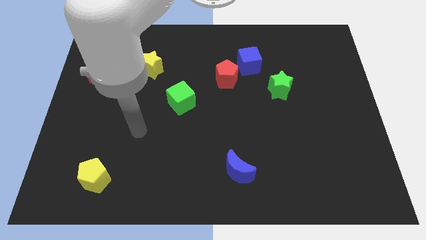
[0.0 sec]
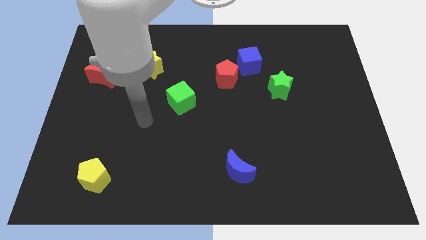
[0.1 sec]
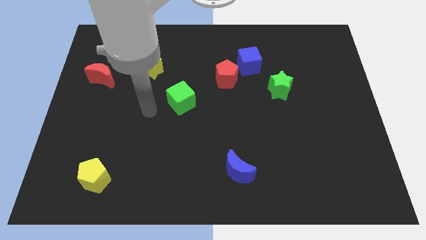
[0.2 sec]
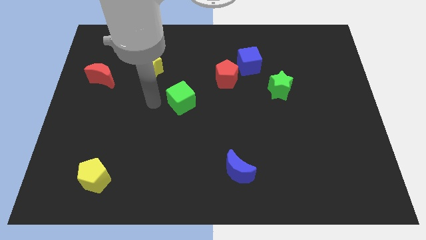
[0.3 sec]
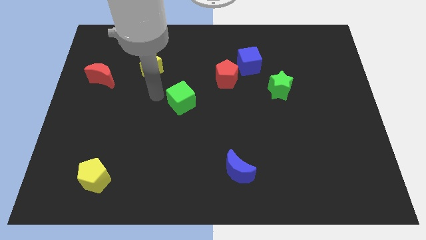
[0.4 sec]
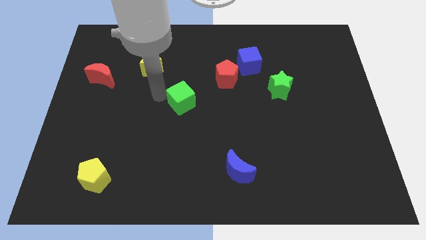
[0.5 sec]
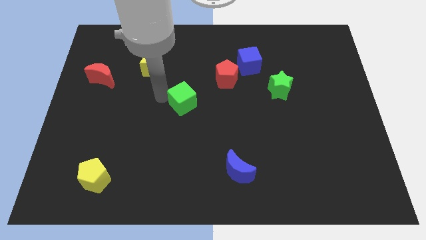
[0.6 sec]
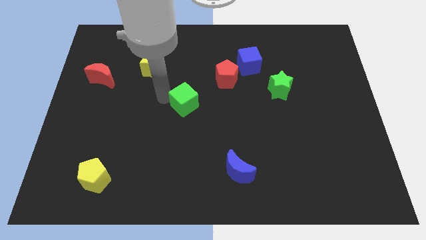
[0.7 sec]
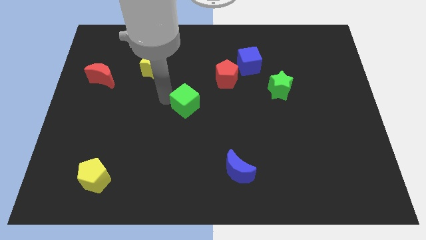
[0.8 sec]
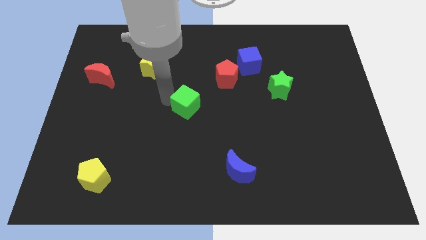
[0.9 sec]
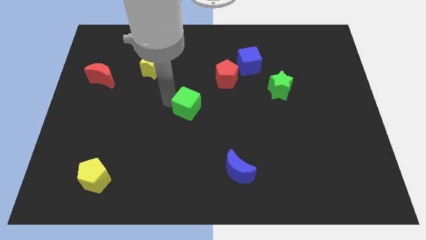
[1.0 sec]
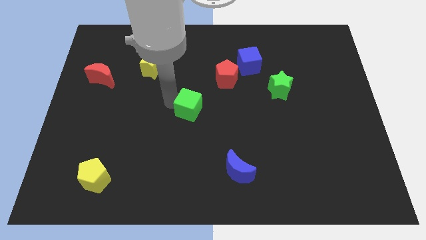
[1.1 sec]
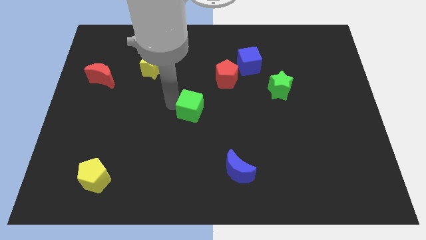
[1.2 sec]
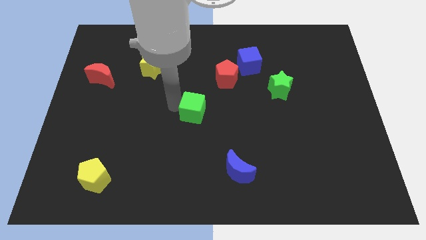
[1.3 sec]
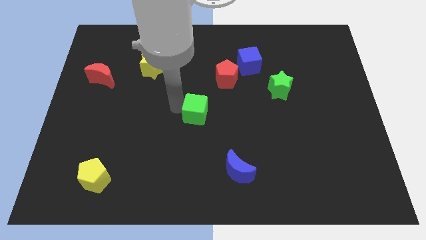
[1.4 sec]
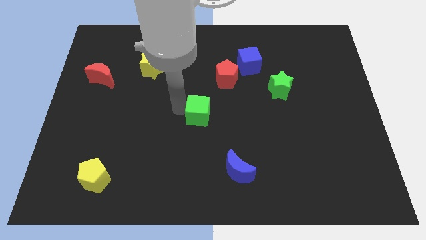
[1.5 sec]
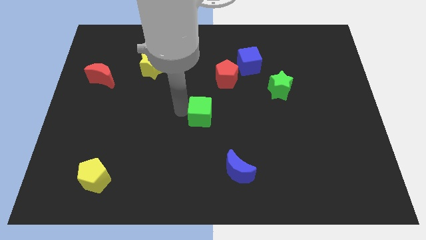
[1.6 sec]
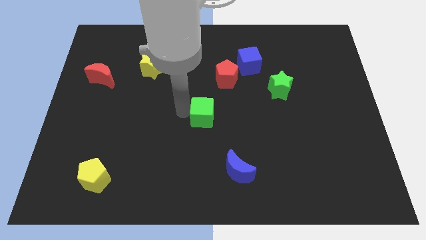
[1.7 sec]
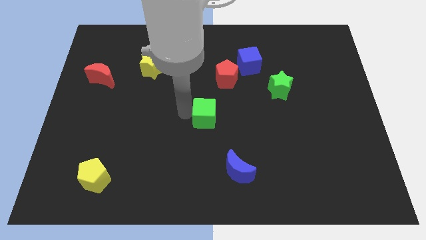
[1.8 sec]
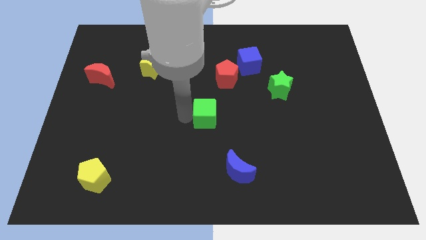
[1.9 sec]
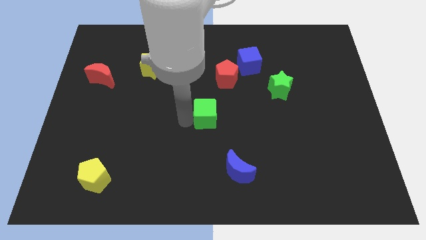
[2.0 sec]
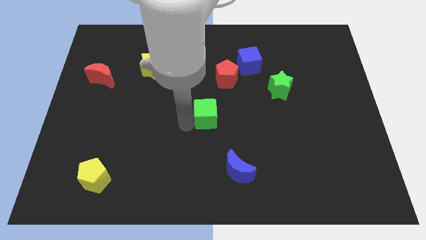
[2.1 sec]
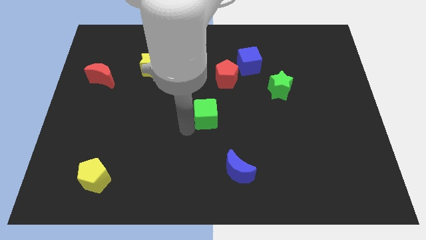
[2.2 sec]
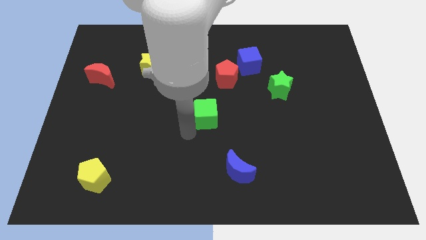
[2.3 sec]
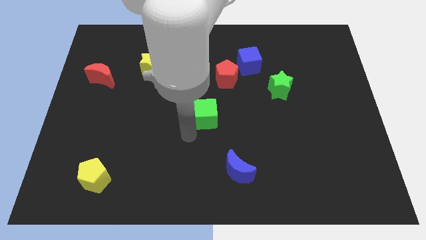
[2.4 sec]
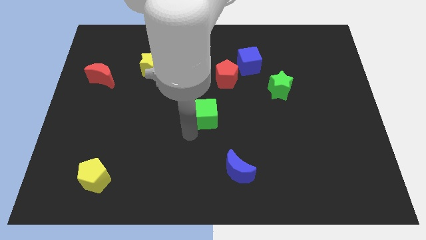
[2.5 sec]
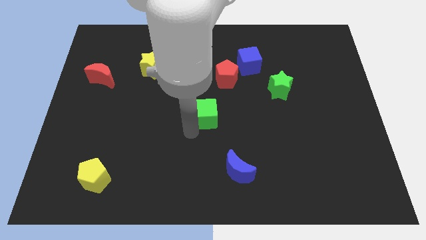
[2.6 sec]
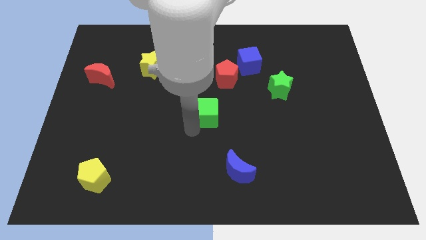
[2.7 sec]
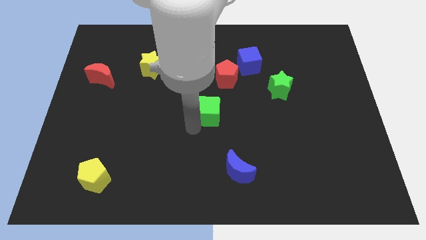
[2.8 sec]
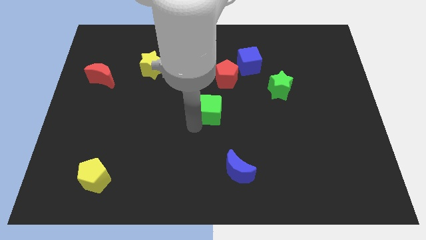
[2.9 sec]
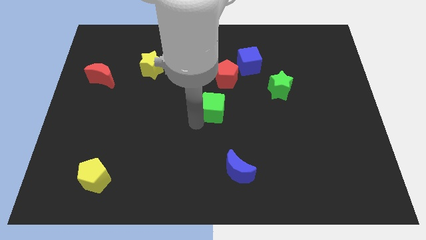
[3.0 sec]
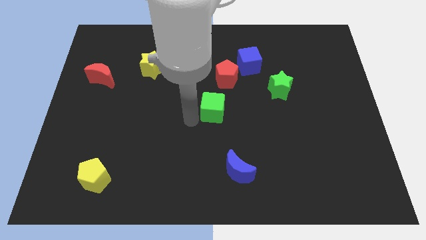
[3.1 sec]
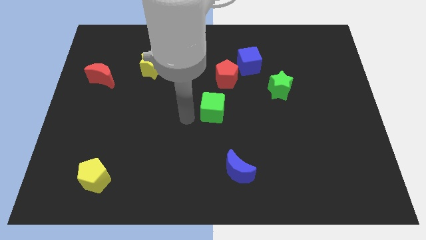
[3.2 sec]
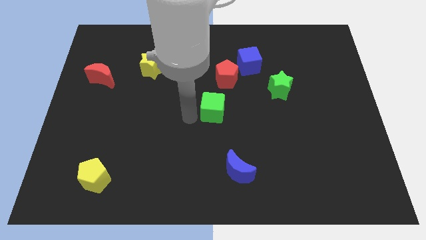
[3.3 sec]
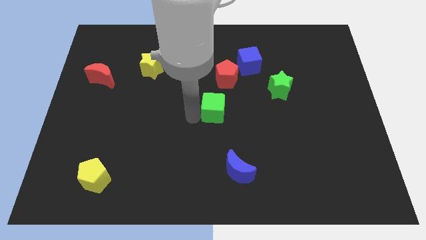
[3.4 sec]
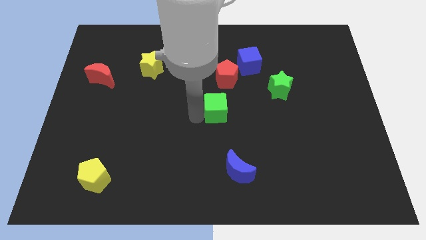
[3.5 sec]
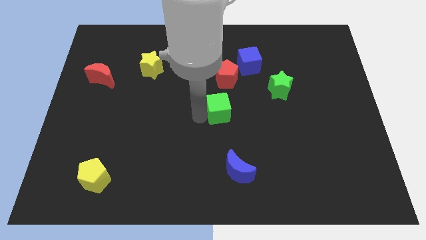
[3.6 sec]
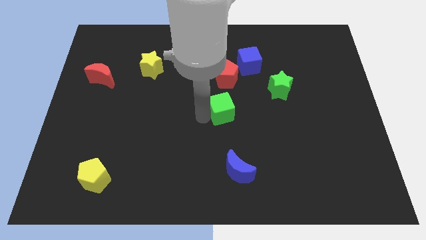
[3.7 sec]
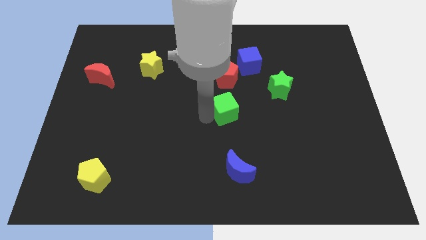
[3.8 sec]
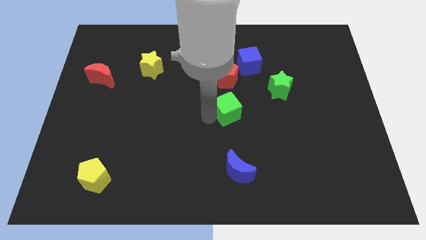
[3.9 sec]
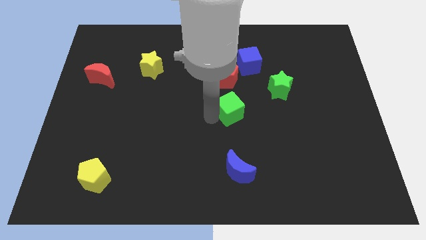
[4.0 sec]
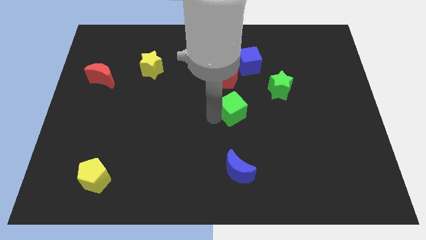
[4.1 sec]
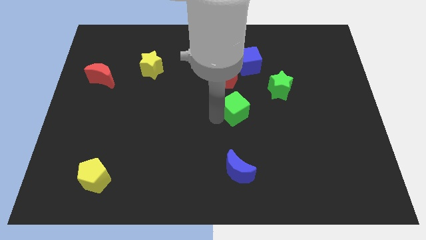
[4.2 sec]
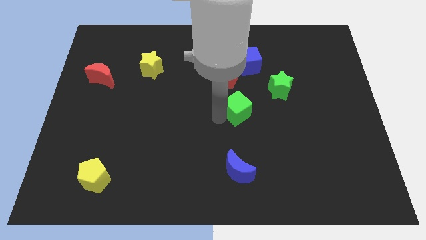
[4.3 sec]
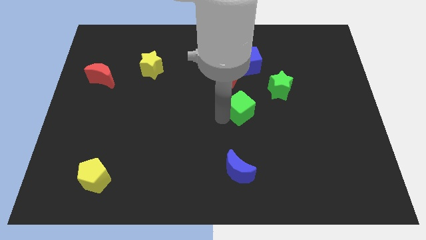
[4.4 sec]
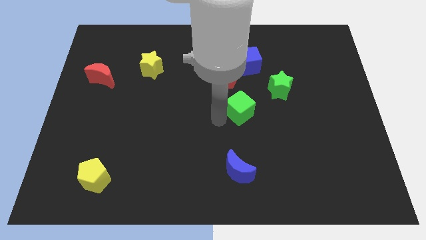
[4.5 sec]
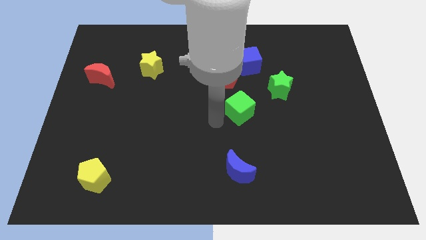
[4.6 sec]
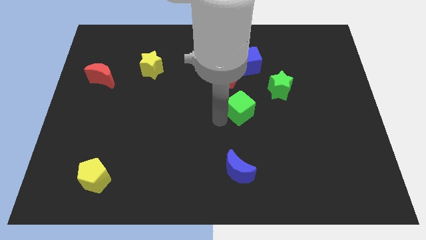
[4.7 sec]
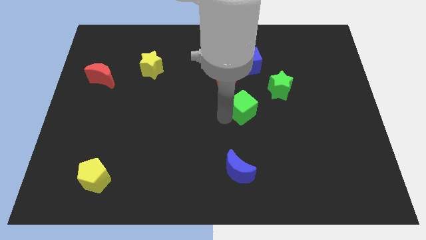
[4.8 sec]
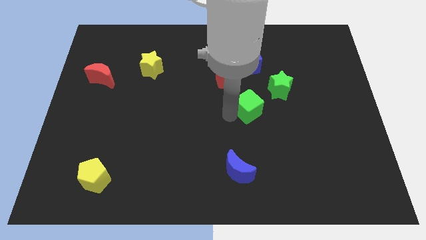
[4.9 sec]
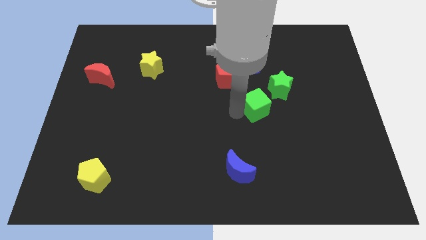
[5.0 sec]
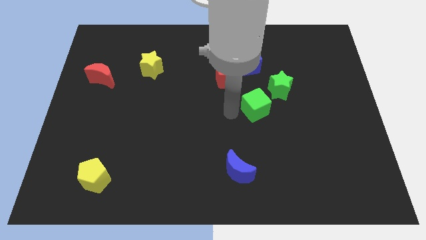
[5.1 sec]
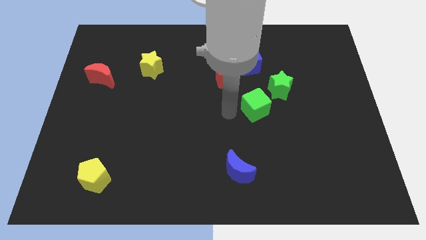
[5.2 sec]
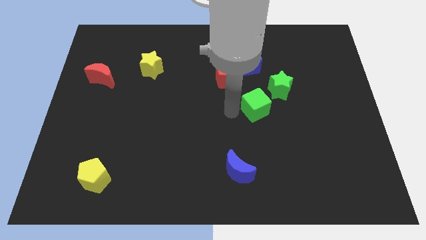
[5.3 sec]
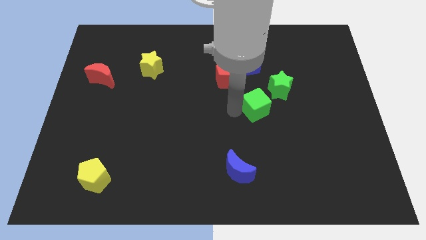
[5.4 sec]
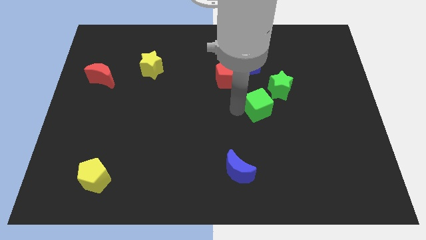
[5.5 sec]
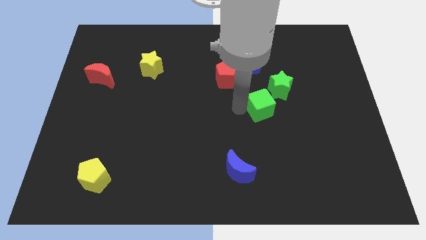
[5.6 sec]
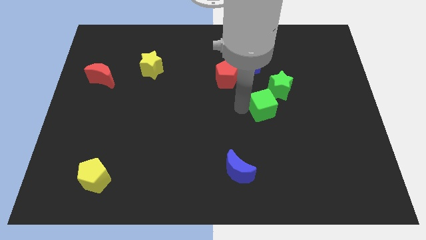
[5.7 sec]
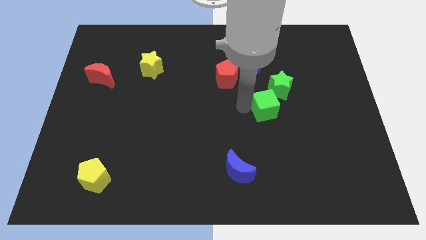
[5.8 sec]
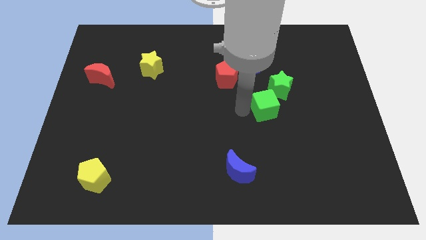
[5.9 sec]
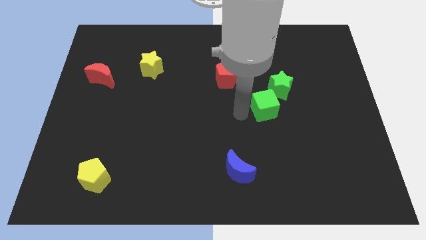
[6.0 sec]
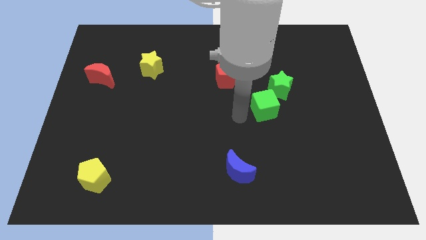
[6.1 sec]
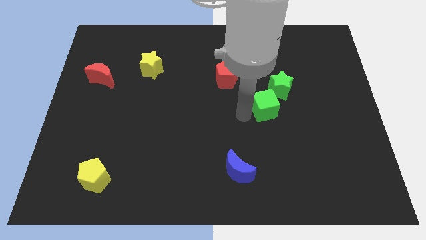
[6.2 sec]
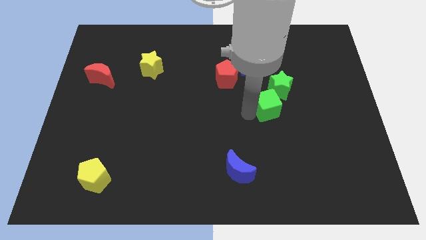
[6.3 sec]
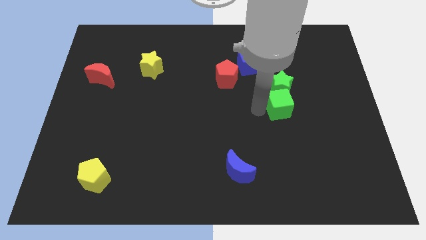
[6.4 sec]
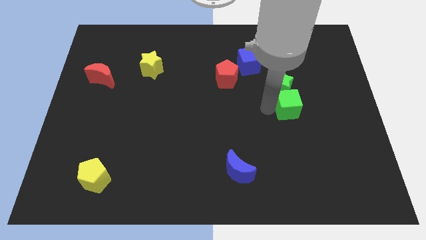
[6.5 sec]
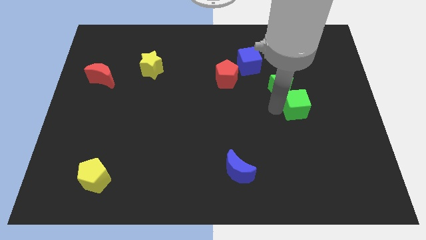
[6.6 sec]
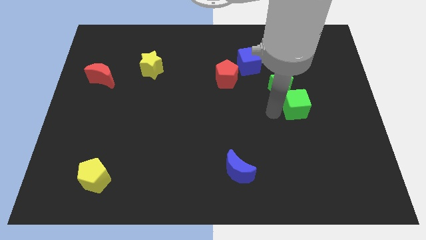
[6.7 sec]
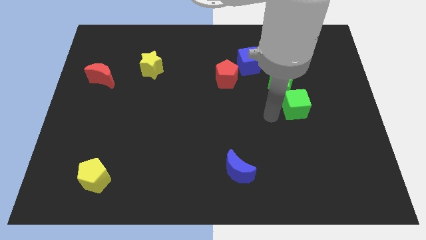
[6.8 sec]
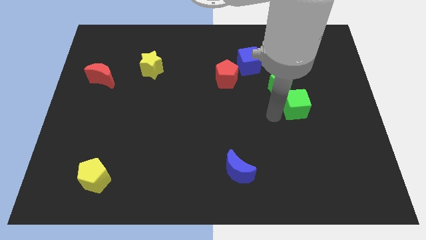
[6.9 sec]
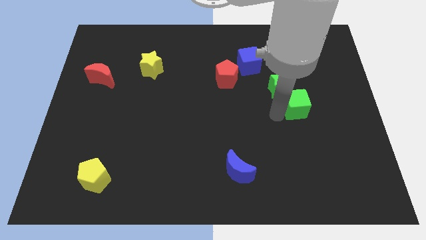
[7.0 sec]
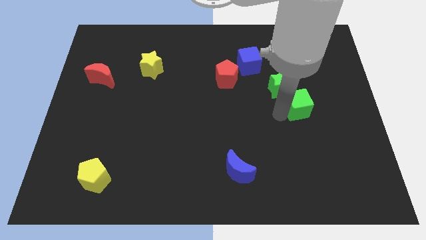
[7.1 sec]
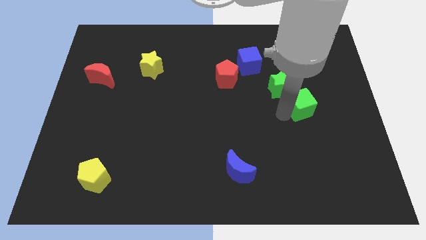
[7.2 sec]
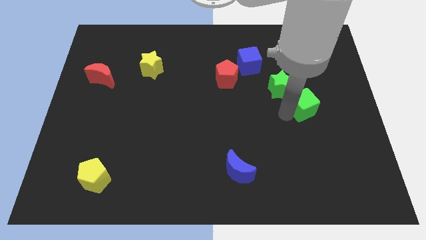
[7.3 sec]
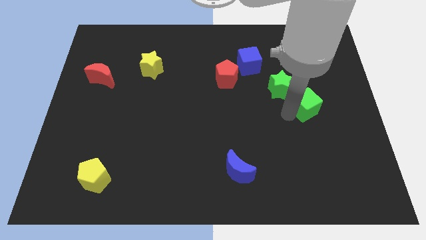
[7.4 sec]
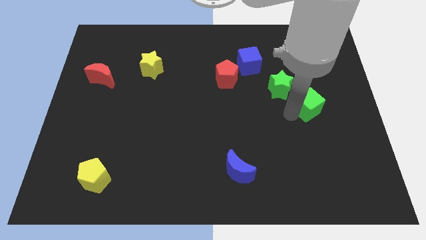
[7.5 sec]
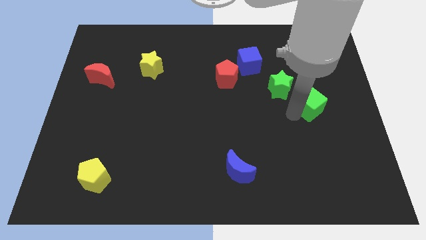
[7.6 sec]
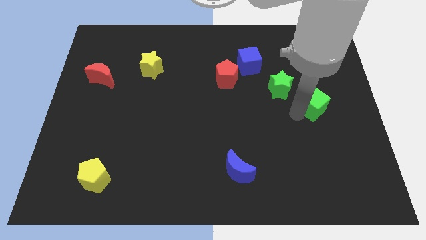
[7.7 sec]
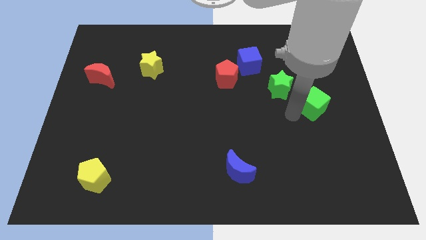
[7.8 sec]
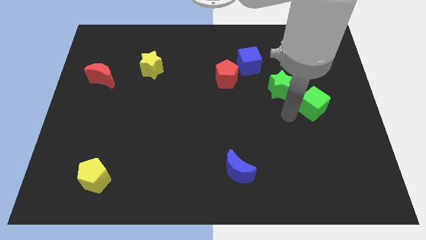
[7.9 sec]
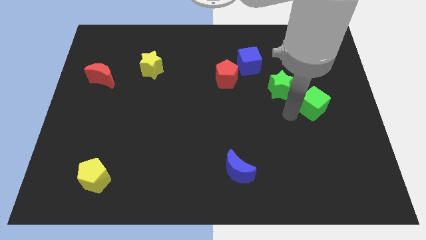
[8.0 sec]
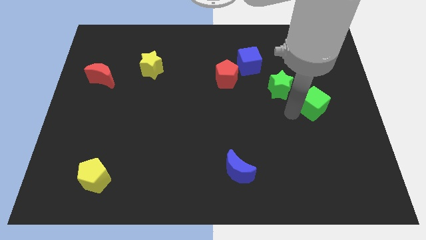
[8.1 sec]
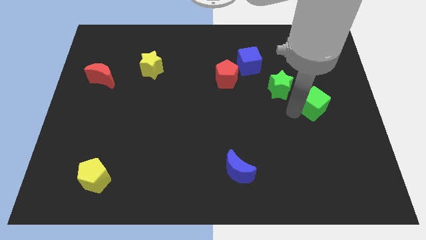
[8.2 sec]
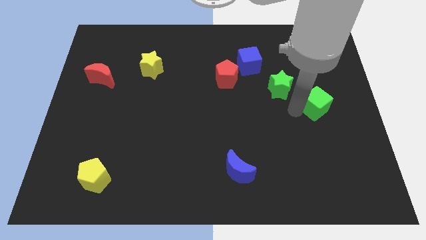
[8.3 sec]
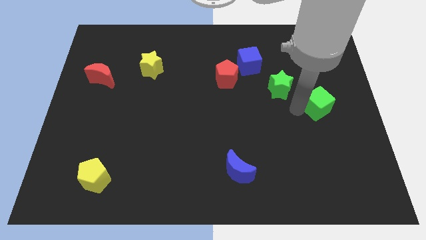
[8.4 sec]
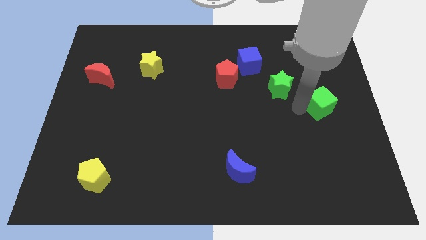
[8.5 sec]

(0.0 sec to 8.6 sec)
push the green cube to the right side of the board
